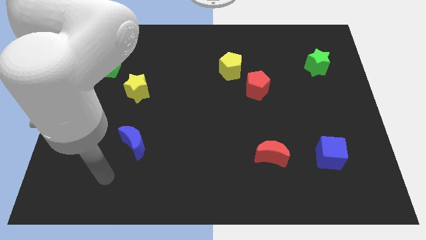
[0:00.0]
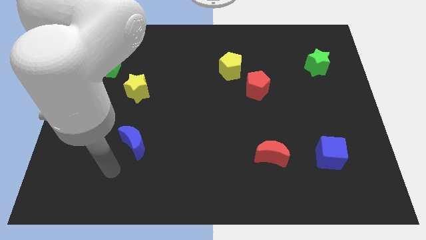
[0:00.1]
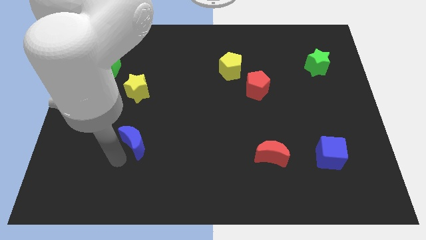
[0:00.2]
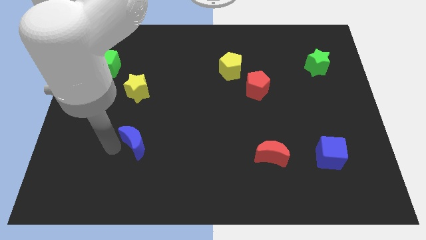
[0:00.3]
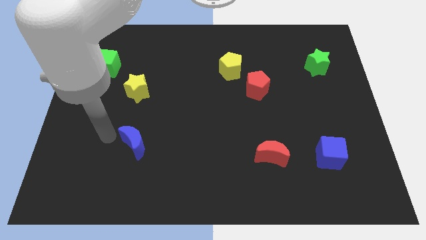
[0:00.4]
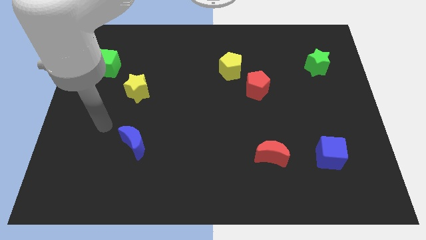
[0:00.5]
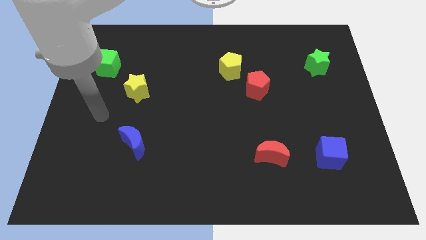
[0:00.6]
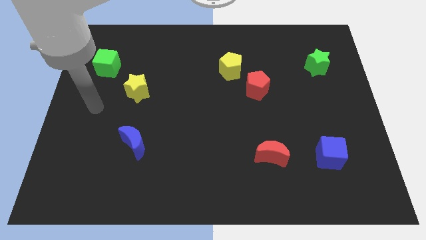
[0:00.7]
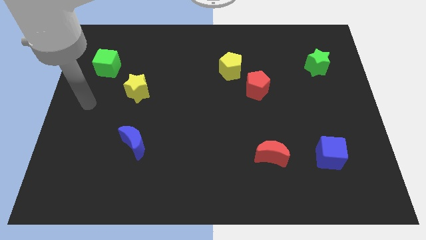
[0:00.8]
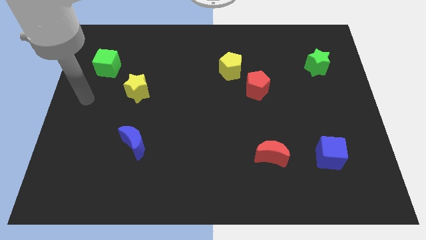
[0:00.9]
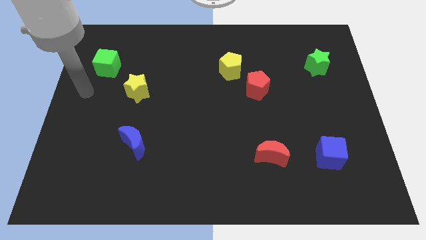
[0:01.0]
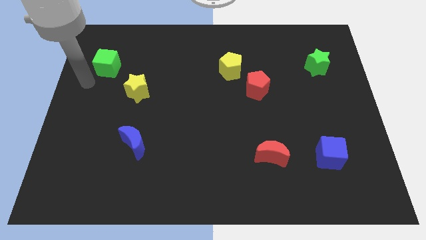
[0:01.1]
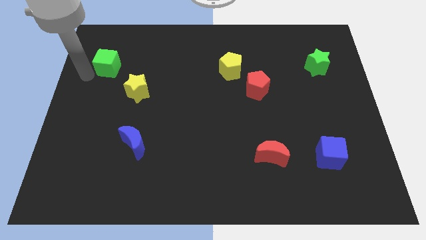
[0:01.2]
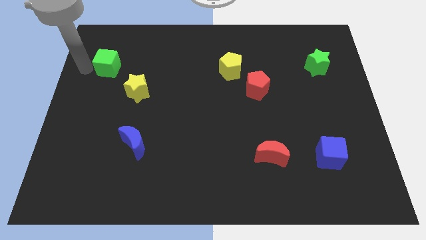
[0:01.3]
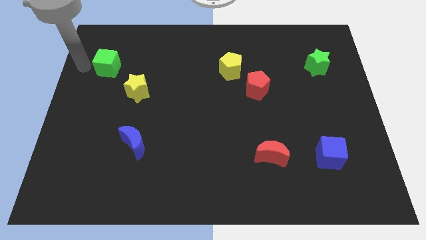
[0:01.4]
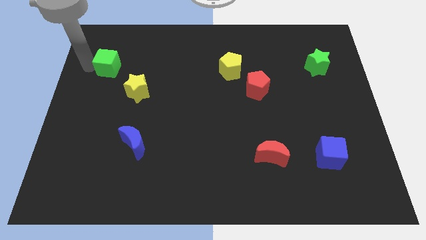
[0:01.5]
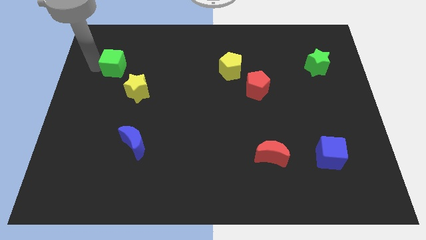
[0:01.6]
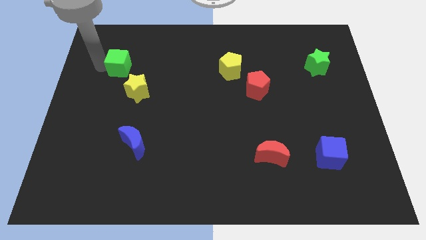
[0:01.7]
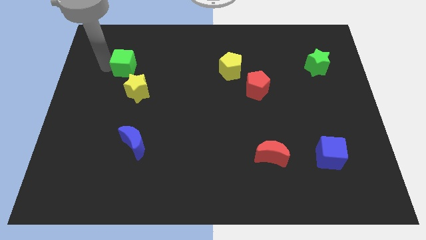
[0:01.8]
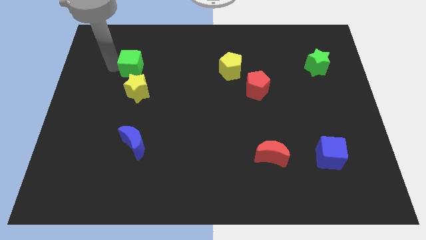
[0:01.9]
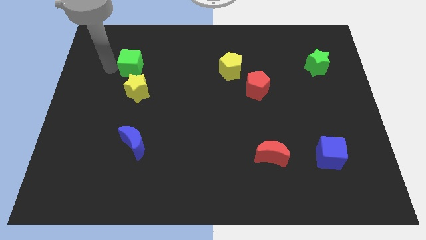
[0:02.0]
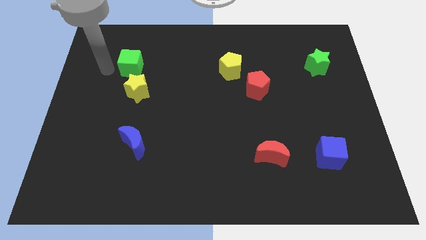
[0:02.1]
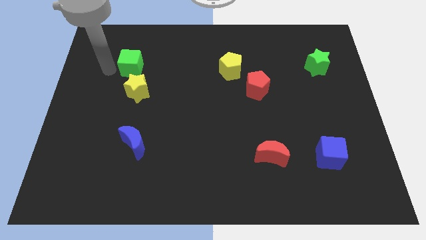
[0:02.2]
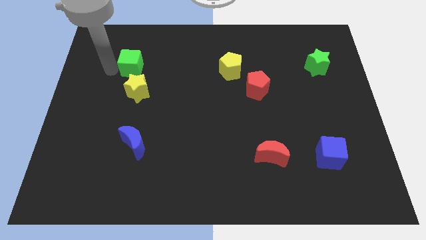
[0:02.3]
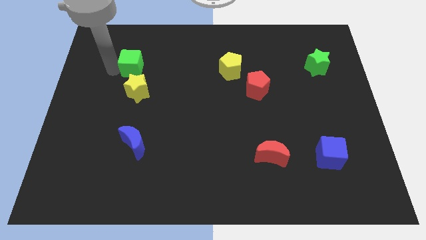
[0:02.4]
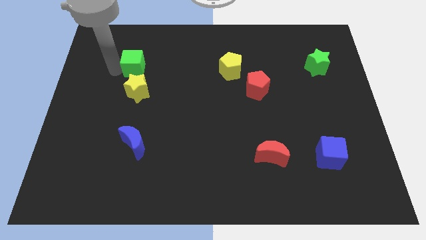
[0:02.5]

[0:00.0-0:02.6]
push the green cube somewhat right

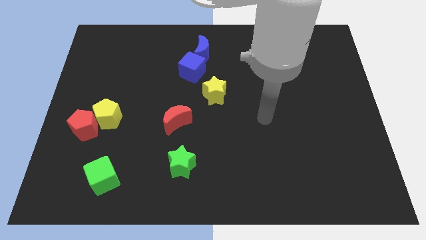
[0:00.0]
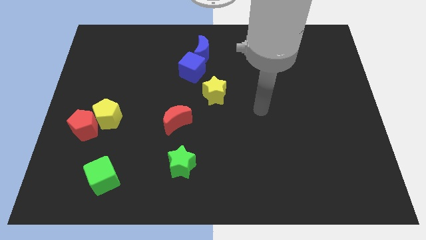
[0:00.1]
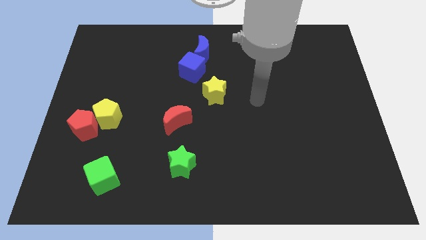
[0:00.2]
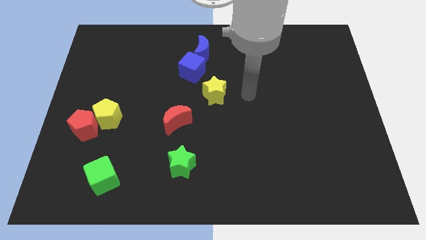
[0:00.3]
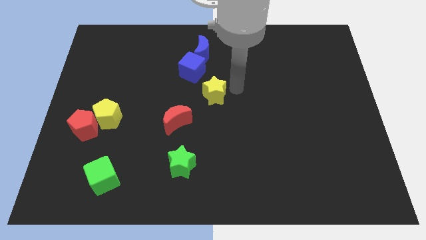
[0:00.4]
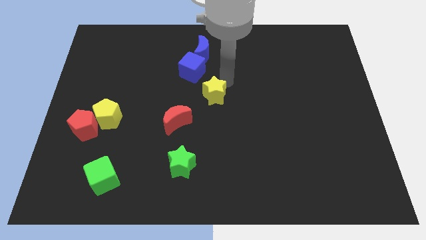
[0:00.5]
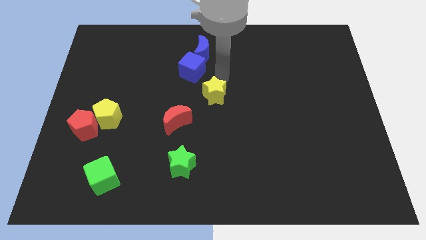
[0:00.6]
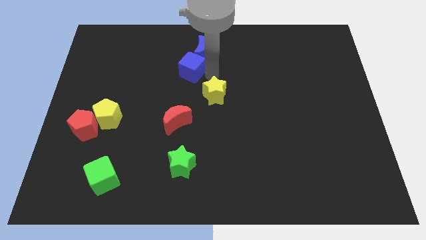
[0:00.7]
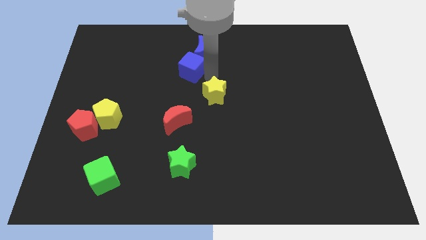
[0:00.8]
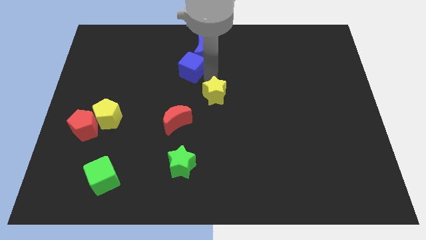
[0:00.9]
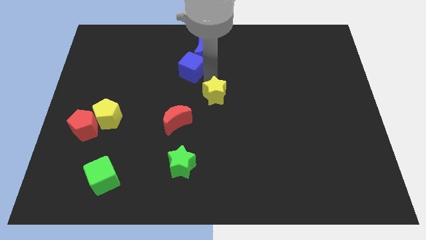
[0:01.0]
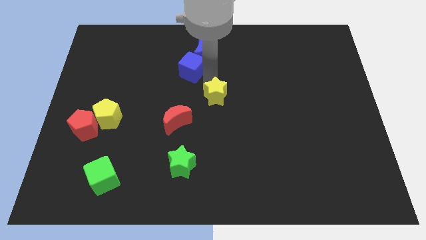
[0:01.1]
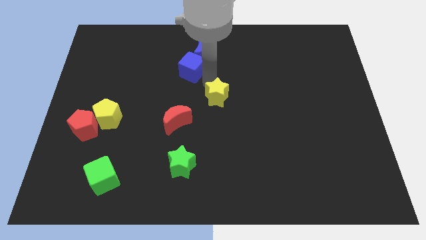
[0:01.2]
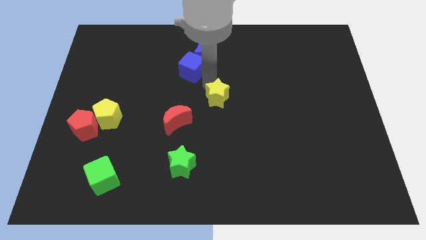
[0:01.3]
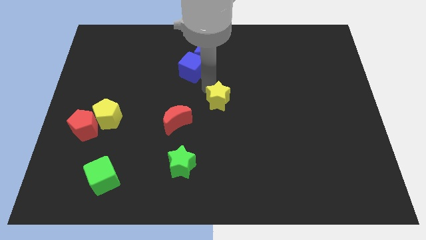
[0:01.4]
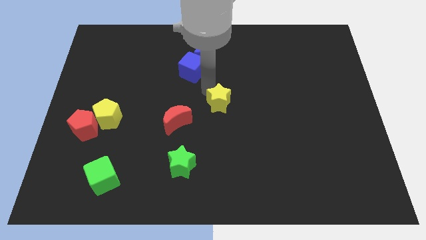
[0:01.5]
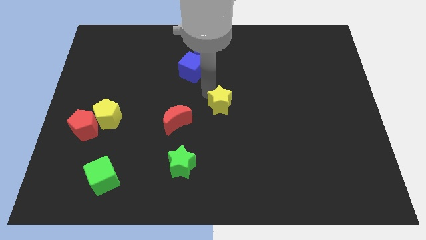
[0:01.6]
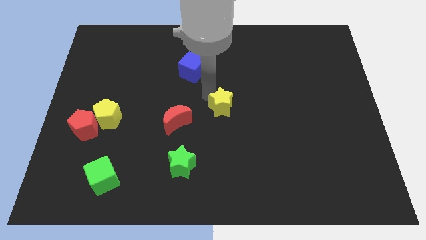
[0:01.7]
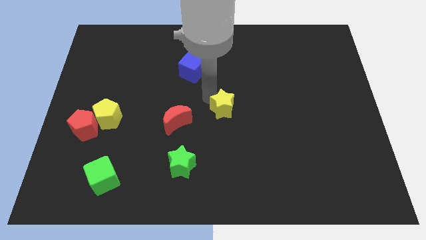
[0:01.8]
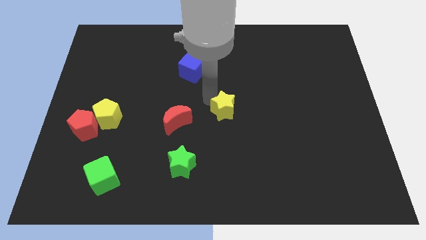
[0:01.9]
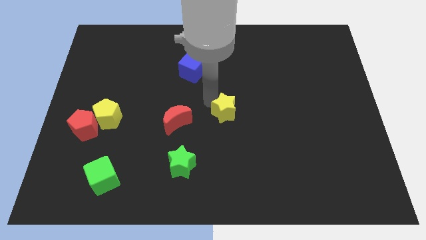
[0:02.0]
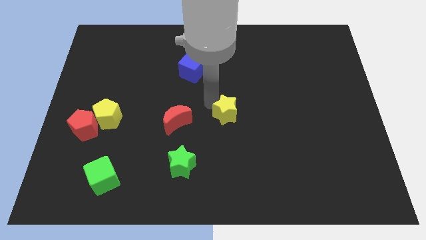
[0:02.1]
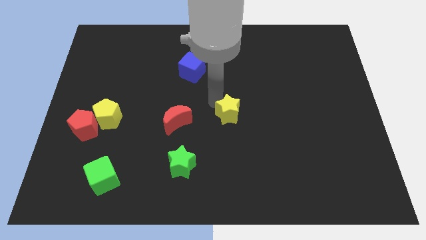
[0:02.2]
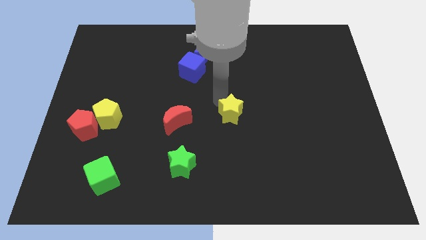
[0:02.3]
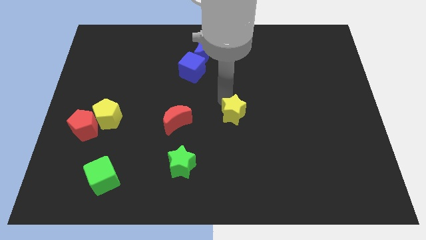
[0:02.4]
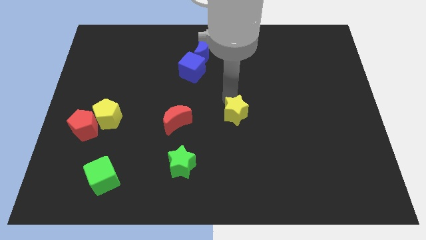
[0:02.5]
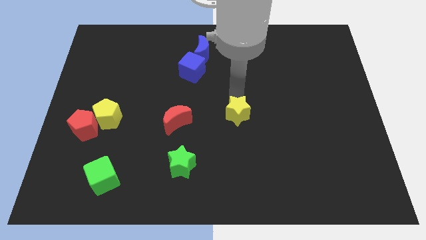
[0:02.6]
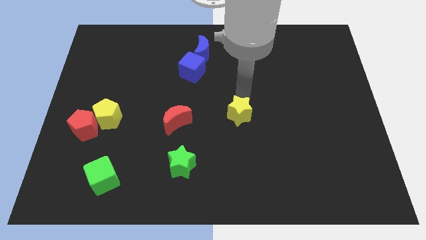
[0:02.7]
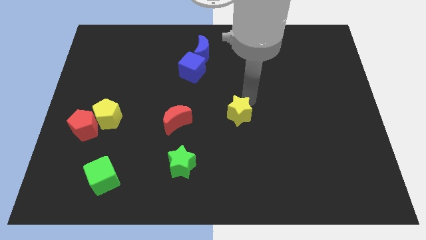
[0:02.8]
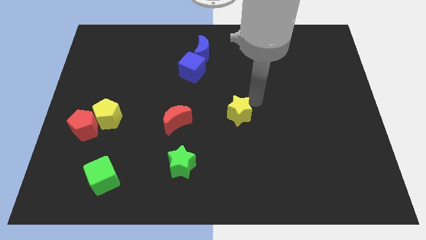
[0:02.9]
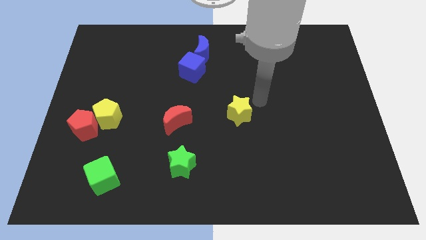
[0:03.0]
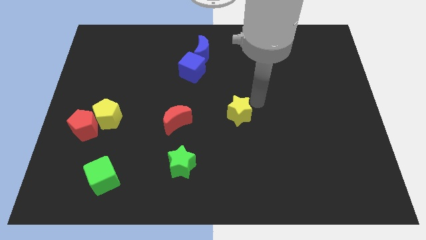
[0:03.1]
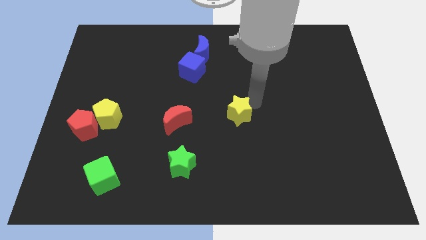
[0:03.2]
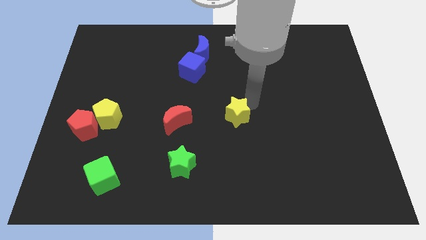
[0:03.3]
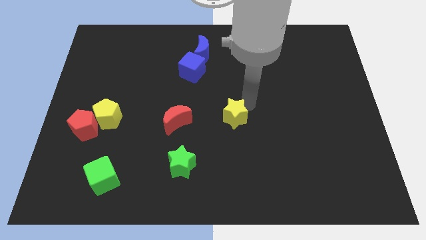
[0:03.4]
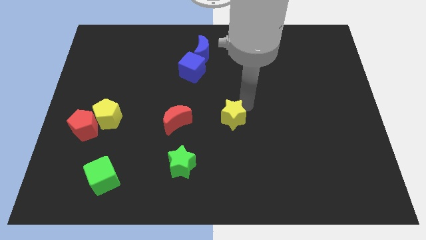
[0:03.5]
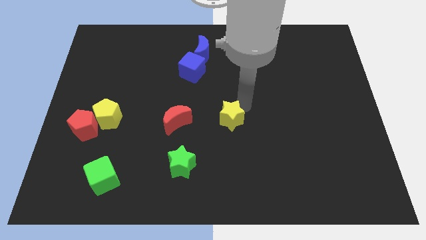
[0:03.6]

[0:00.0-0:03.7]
slightly slide the yellow star down

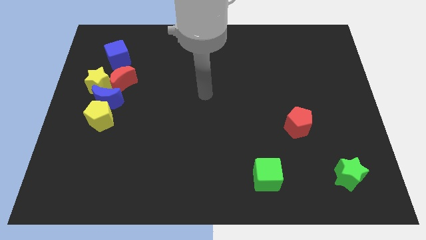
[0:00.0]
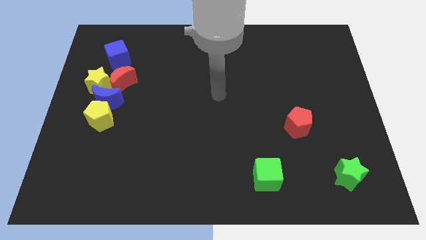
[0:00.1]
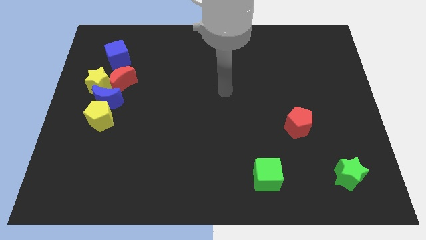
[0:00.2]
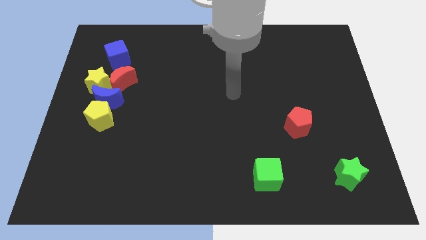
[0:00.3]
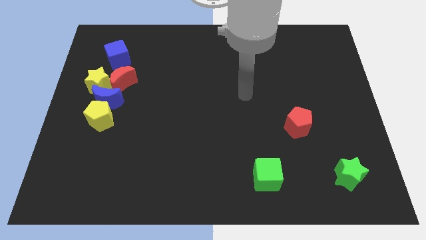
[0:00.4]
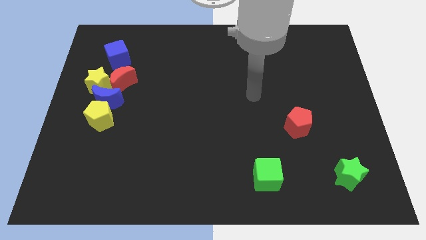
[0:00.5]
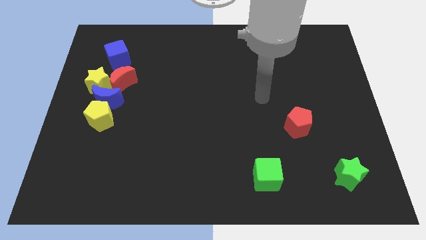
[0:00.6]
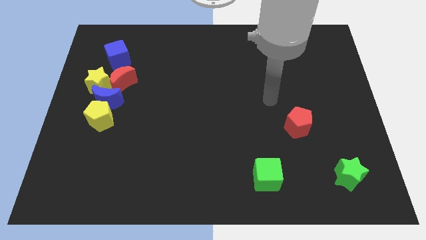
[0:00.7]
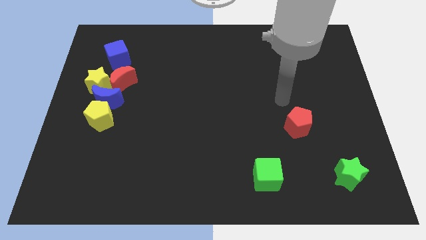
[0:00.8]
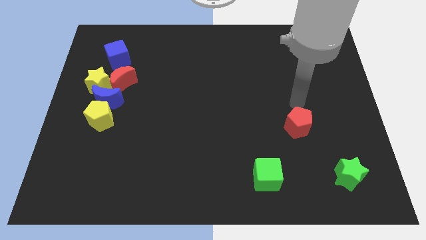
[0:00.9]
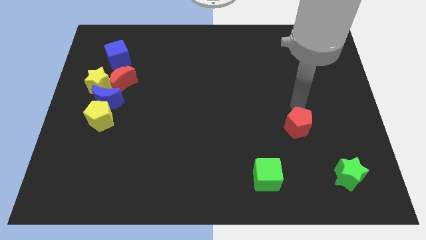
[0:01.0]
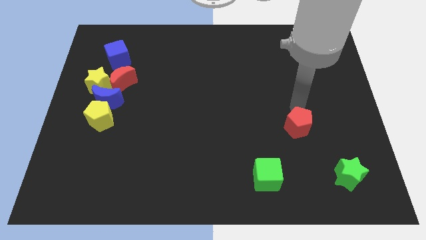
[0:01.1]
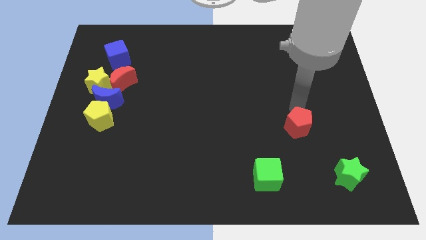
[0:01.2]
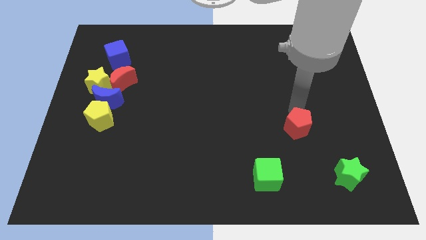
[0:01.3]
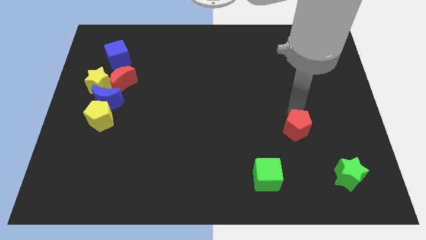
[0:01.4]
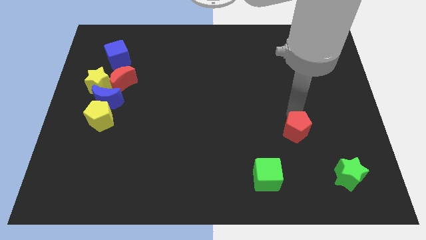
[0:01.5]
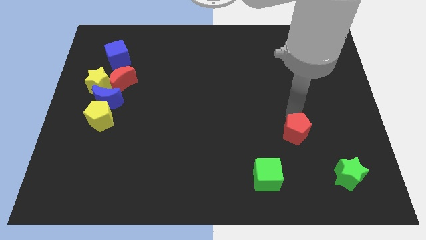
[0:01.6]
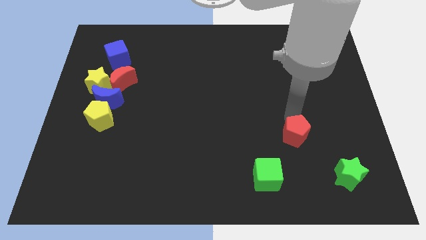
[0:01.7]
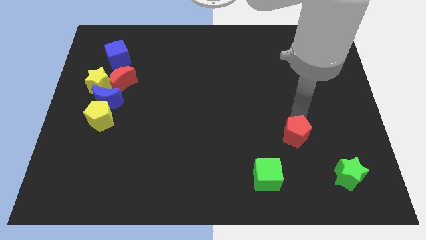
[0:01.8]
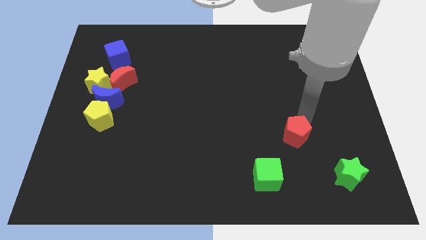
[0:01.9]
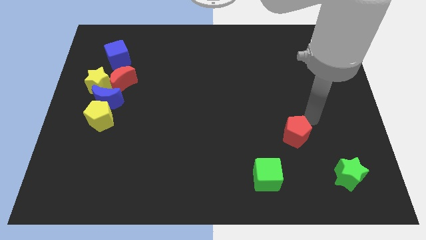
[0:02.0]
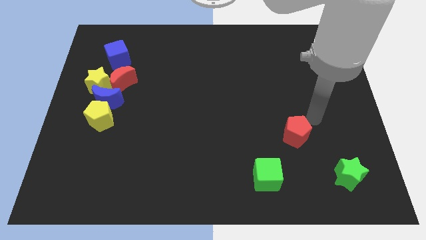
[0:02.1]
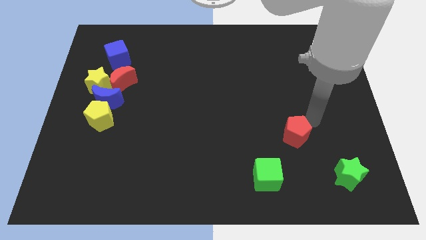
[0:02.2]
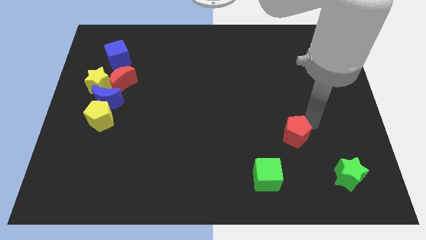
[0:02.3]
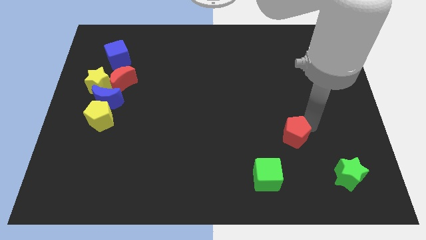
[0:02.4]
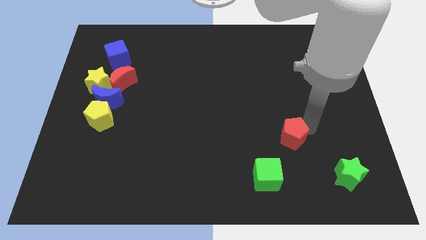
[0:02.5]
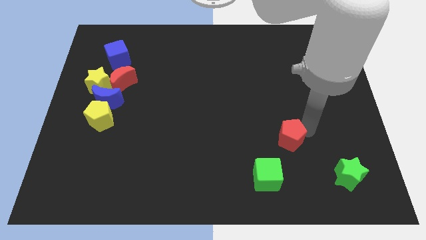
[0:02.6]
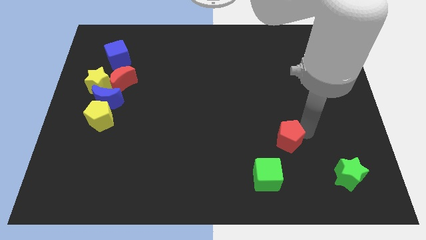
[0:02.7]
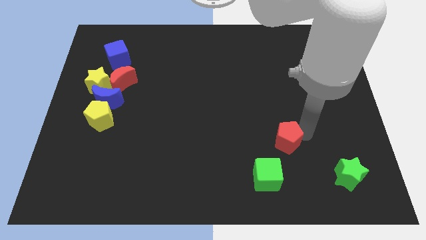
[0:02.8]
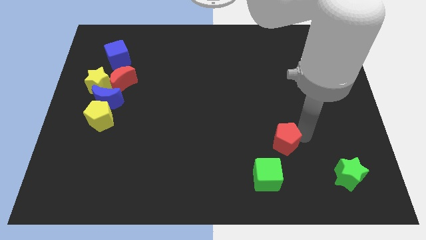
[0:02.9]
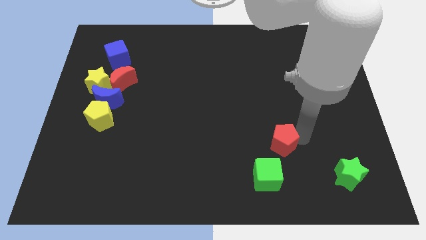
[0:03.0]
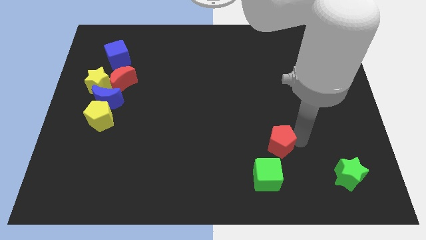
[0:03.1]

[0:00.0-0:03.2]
slightly push the red pentagon down and then left
